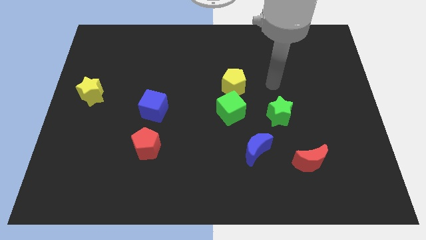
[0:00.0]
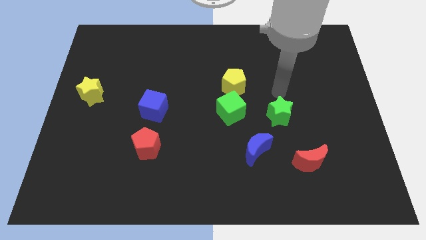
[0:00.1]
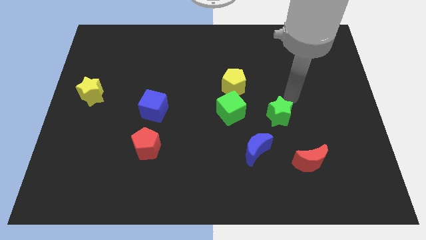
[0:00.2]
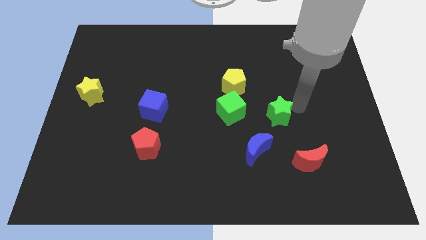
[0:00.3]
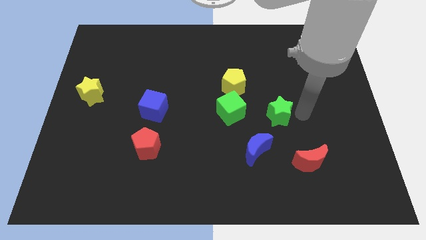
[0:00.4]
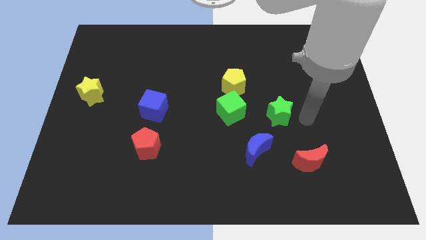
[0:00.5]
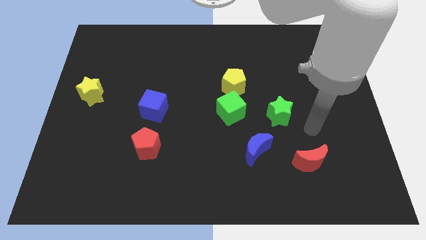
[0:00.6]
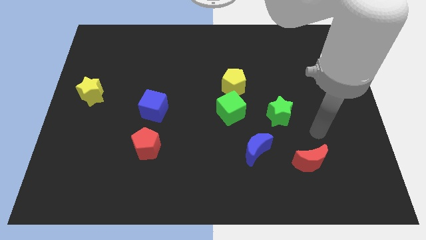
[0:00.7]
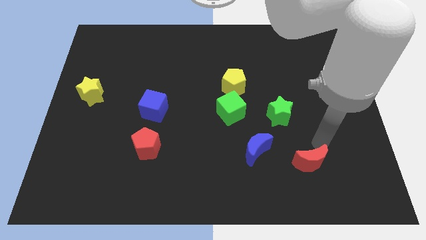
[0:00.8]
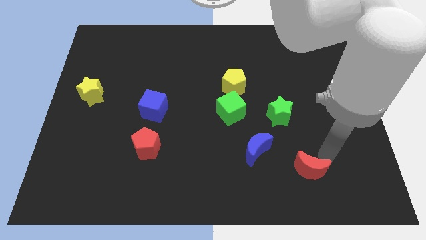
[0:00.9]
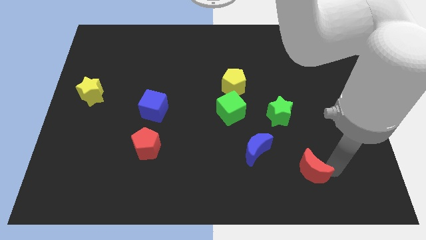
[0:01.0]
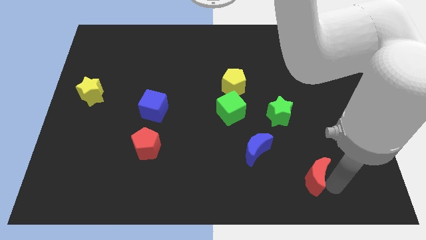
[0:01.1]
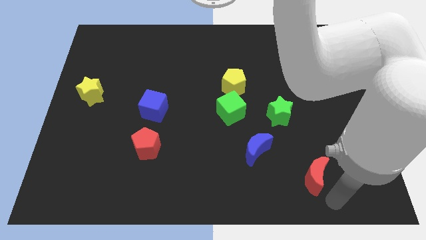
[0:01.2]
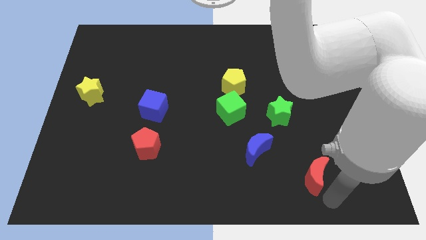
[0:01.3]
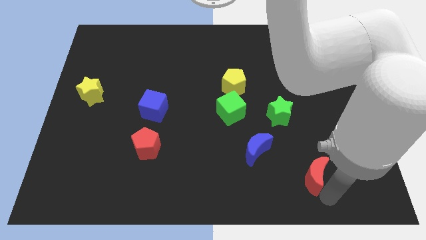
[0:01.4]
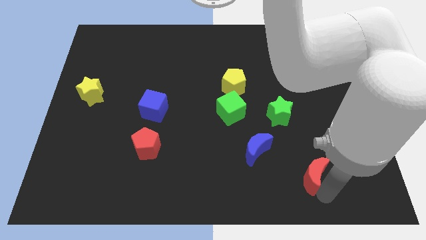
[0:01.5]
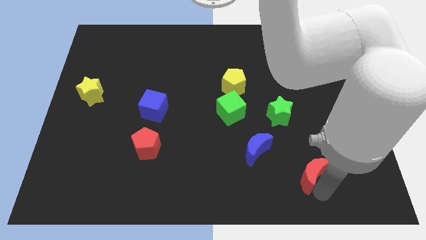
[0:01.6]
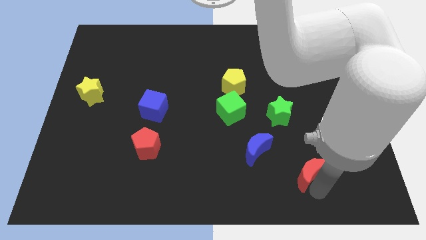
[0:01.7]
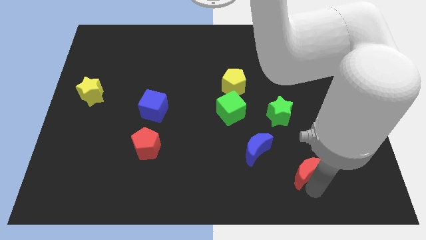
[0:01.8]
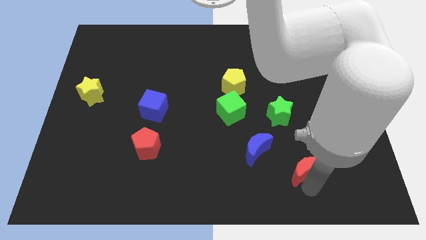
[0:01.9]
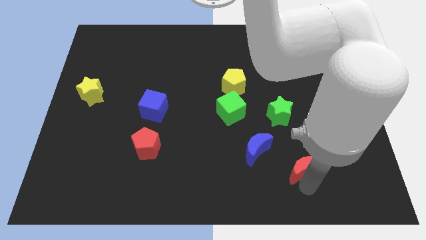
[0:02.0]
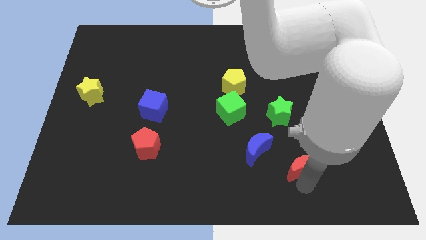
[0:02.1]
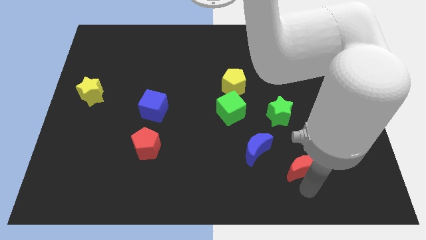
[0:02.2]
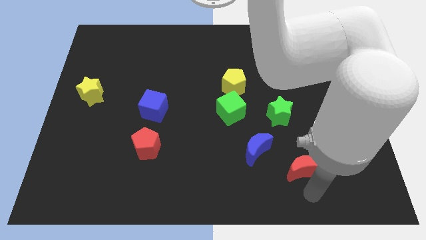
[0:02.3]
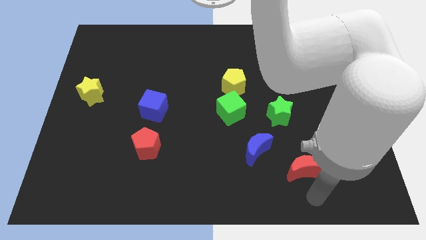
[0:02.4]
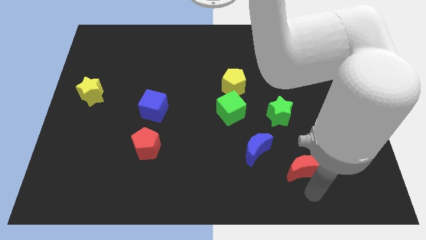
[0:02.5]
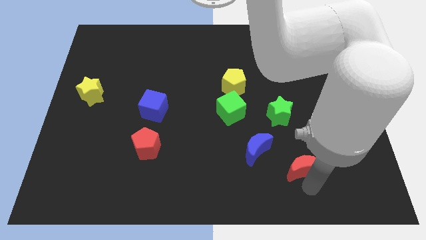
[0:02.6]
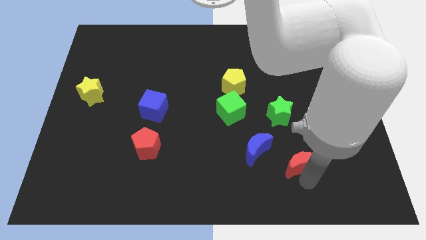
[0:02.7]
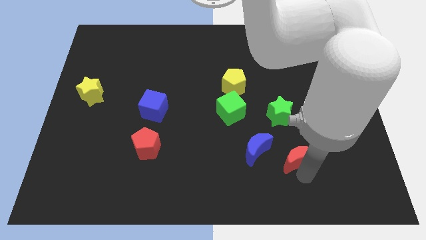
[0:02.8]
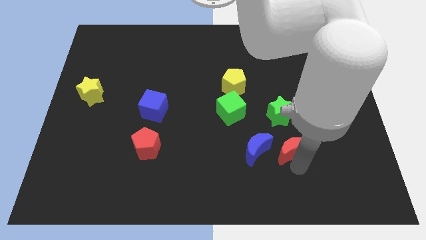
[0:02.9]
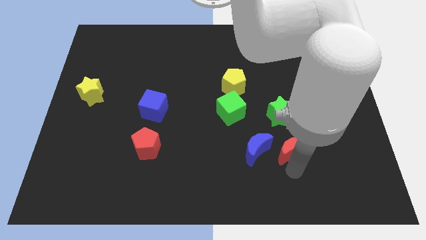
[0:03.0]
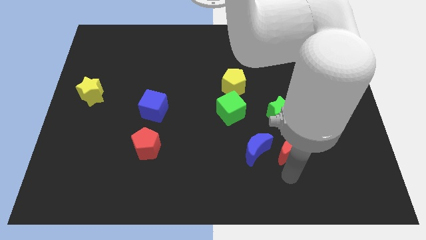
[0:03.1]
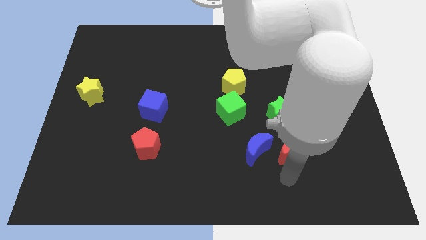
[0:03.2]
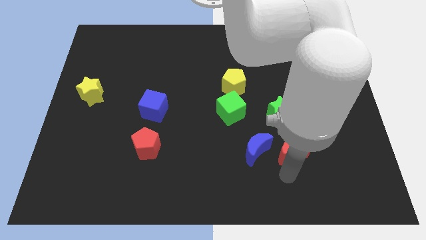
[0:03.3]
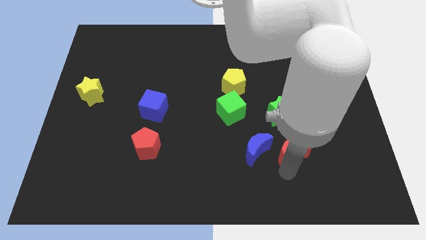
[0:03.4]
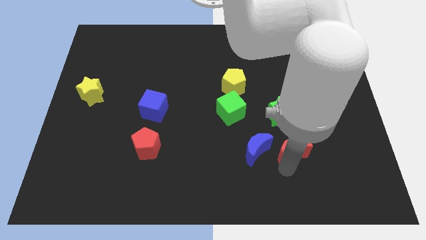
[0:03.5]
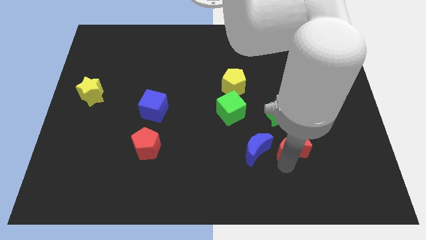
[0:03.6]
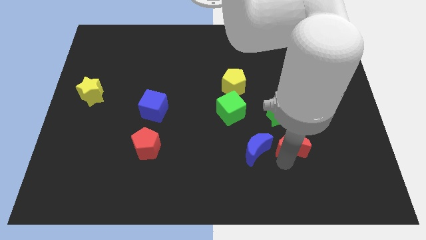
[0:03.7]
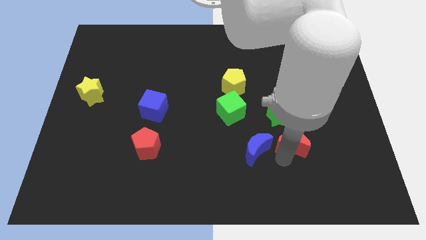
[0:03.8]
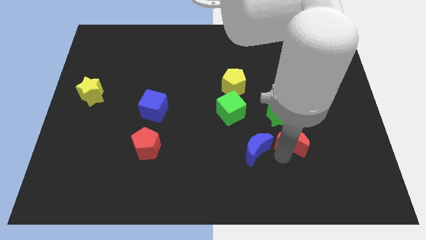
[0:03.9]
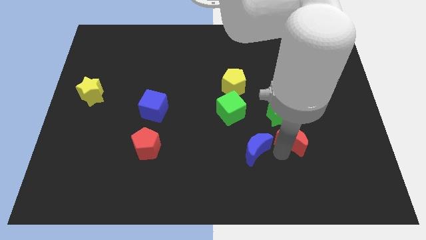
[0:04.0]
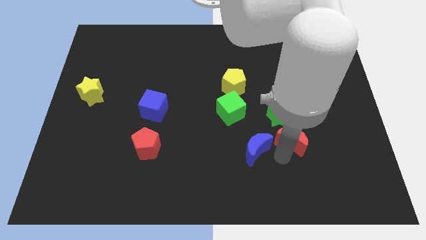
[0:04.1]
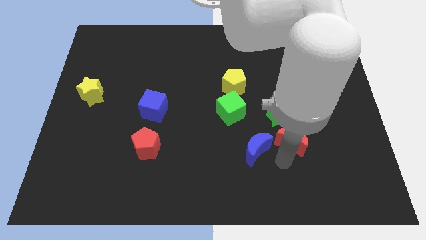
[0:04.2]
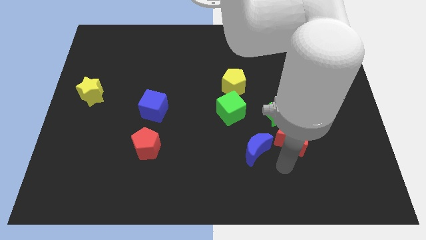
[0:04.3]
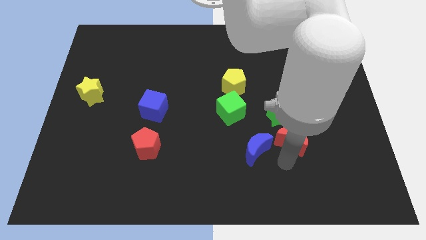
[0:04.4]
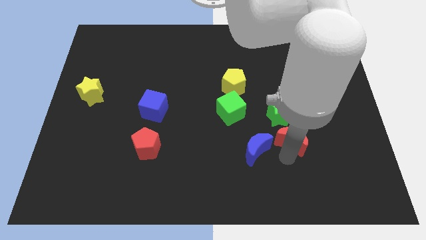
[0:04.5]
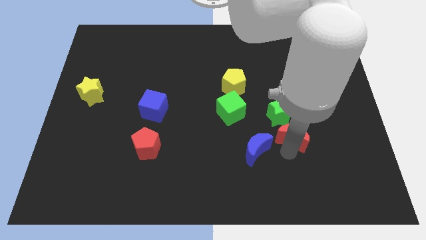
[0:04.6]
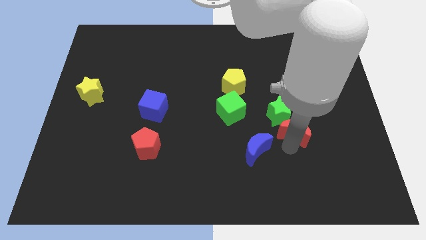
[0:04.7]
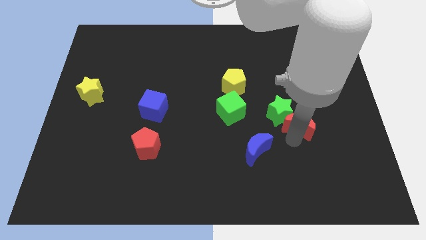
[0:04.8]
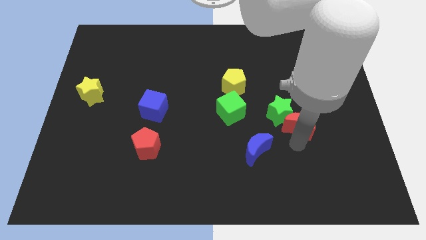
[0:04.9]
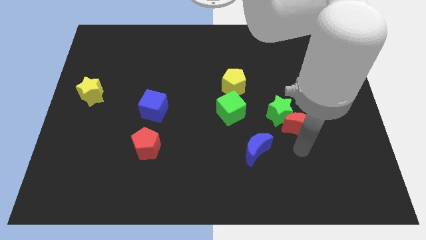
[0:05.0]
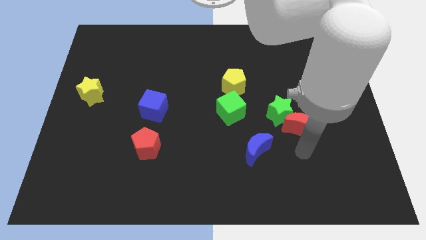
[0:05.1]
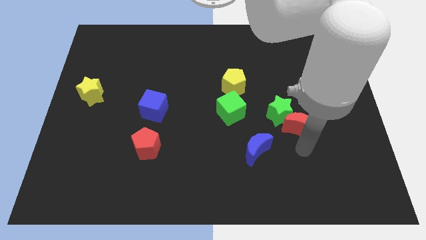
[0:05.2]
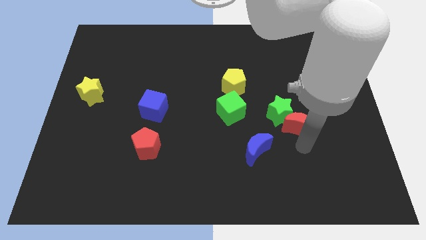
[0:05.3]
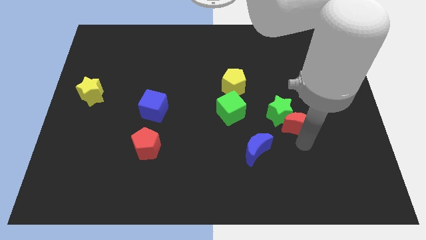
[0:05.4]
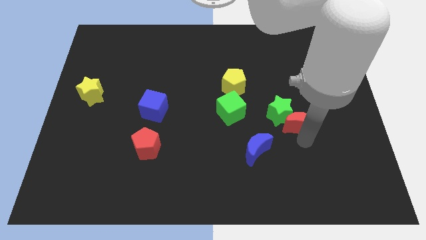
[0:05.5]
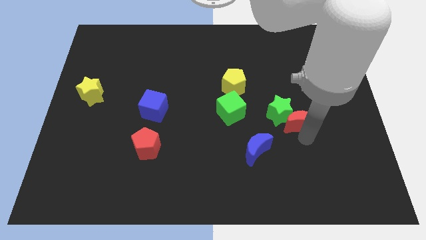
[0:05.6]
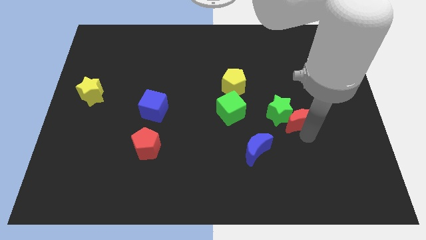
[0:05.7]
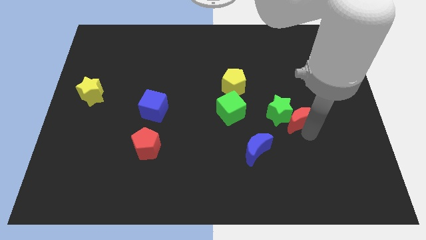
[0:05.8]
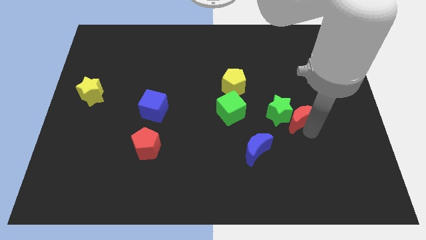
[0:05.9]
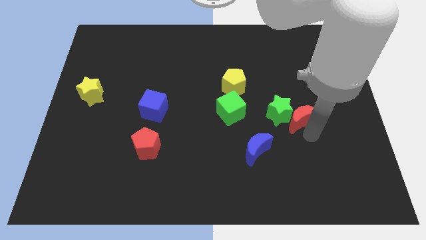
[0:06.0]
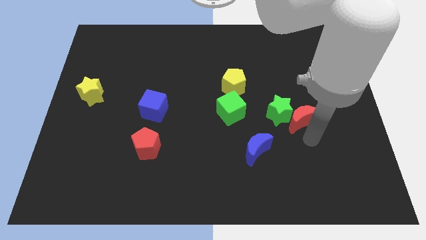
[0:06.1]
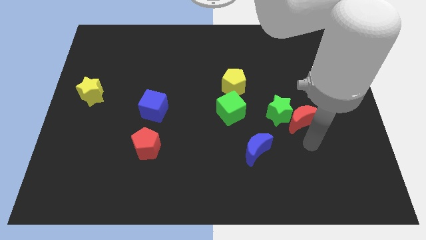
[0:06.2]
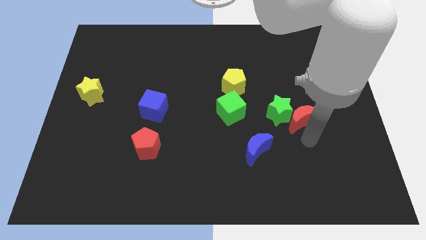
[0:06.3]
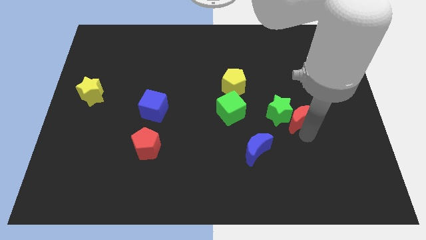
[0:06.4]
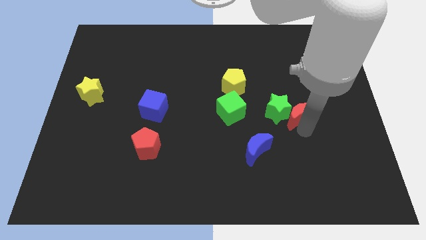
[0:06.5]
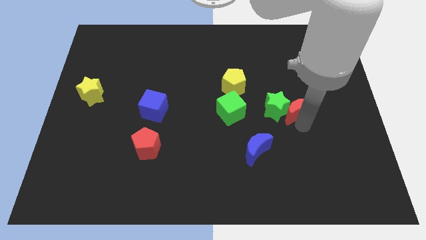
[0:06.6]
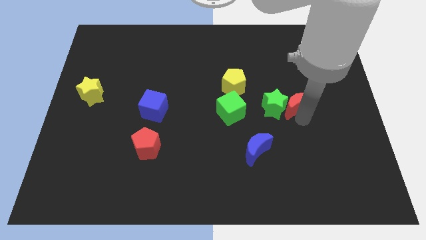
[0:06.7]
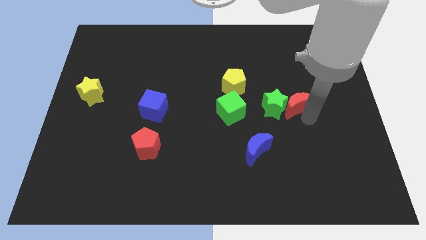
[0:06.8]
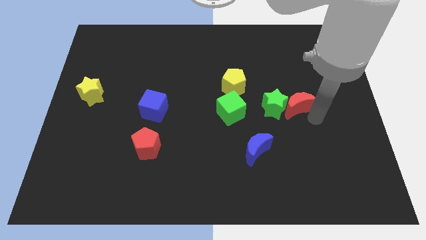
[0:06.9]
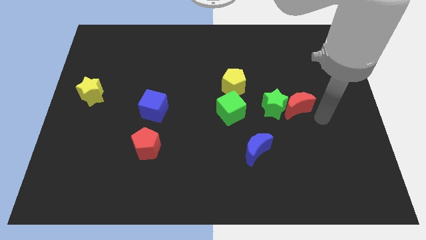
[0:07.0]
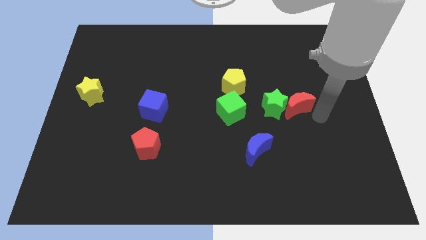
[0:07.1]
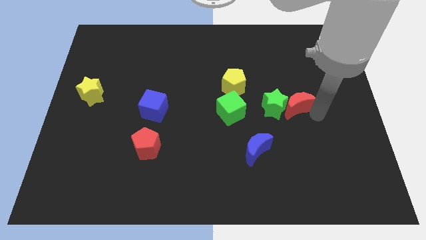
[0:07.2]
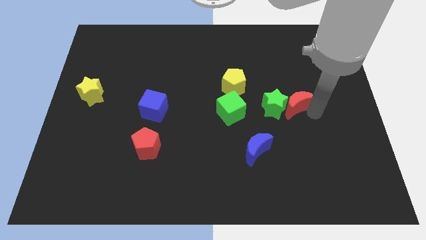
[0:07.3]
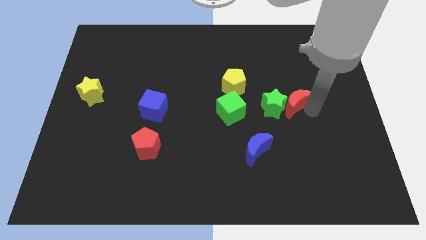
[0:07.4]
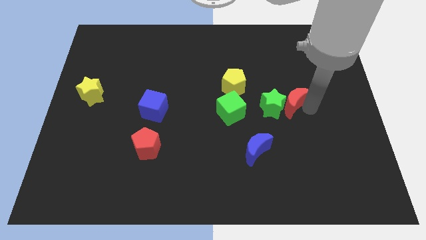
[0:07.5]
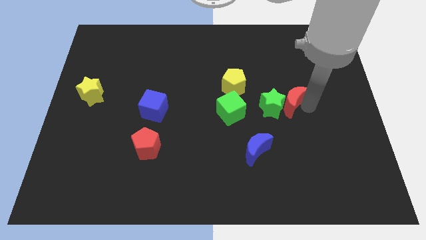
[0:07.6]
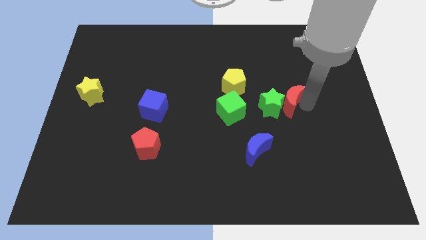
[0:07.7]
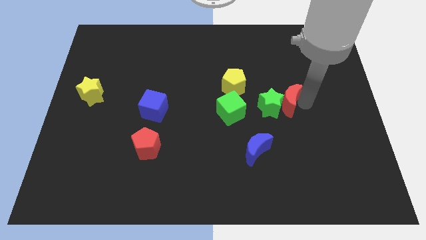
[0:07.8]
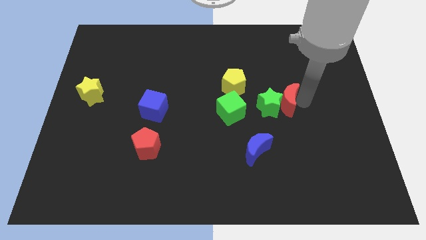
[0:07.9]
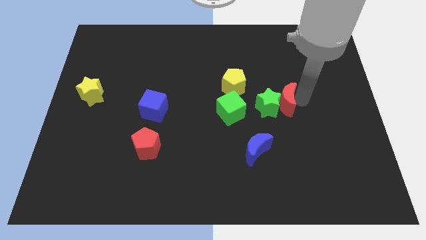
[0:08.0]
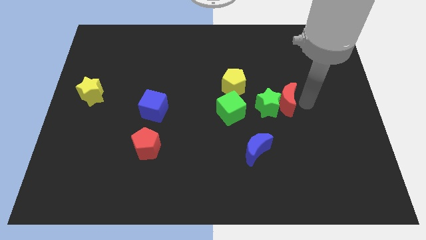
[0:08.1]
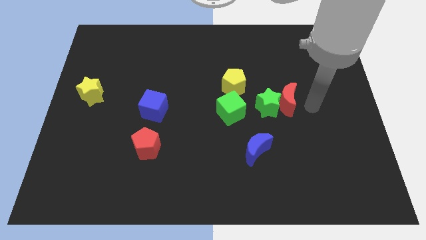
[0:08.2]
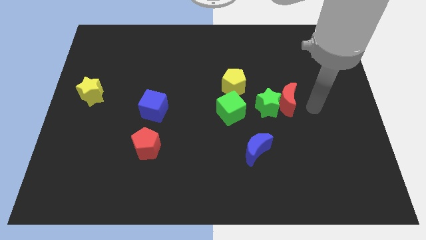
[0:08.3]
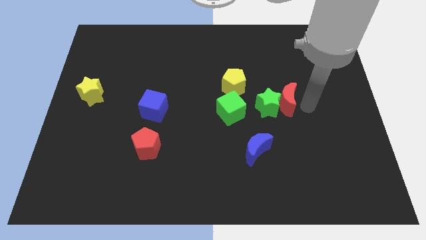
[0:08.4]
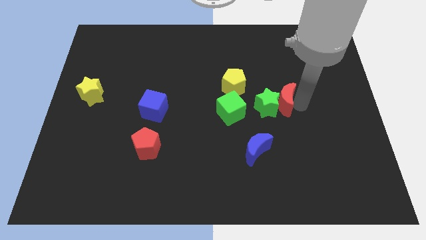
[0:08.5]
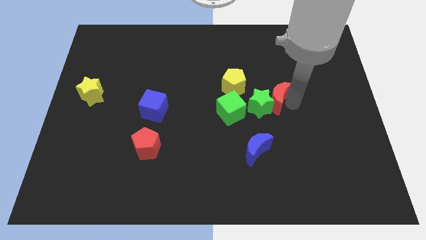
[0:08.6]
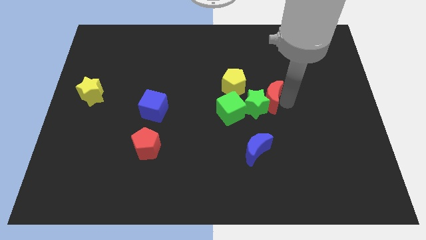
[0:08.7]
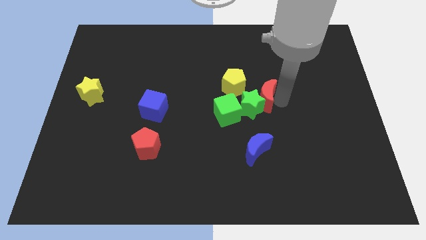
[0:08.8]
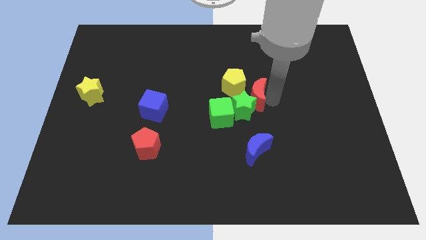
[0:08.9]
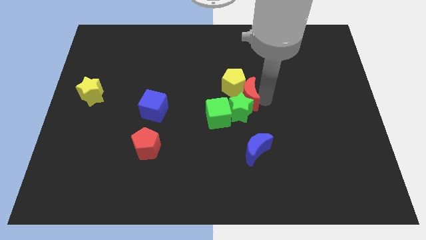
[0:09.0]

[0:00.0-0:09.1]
move the red moon to the yellow pentagon
